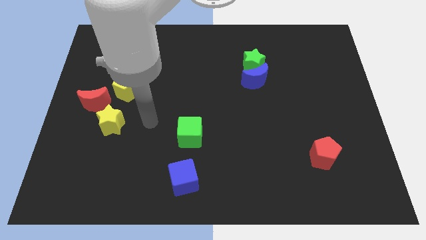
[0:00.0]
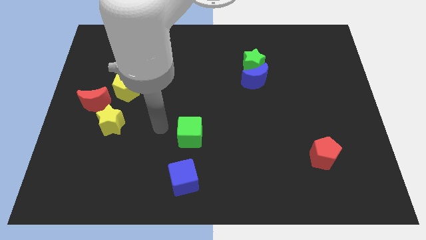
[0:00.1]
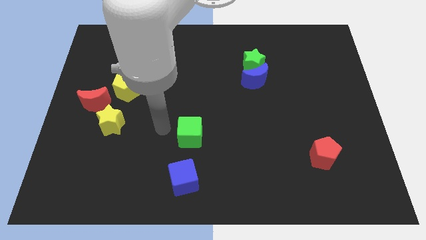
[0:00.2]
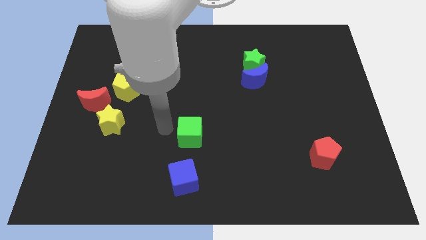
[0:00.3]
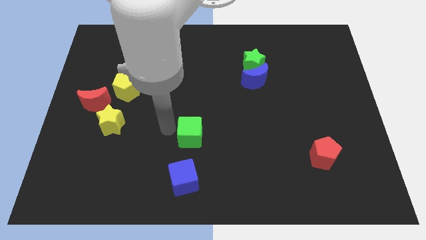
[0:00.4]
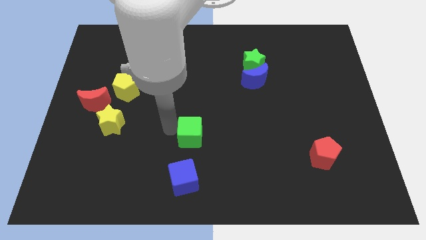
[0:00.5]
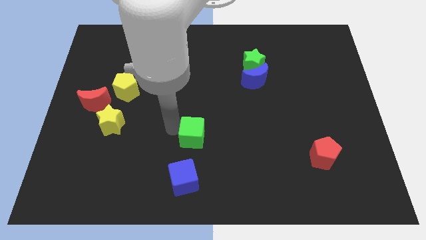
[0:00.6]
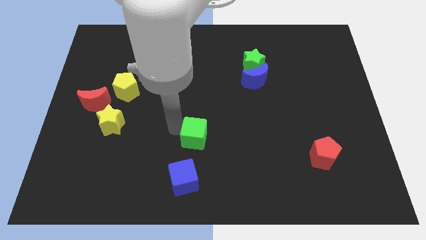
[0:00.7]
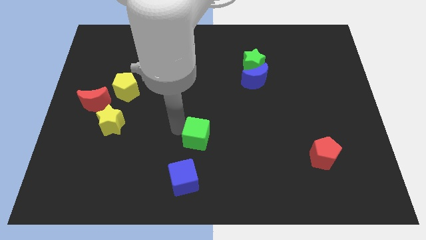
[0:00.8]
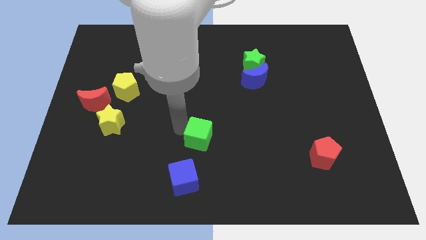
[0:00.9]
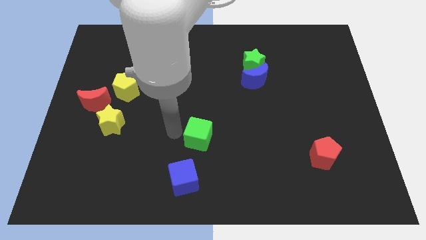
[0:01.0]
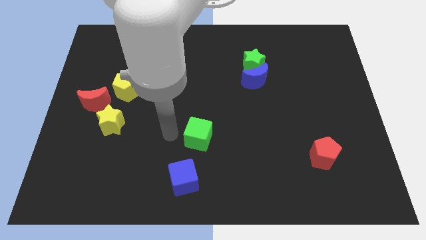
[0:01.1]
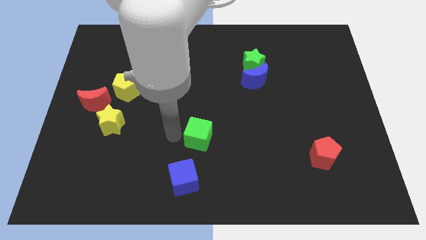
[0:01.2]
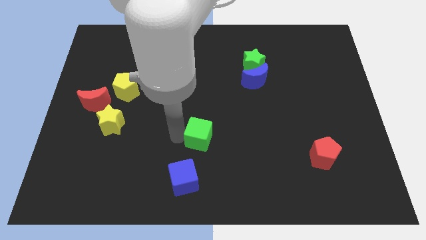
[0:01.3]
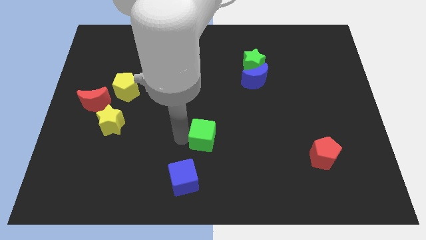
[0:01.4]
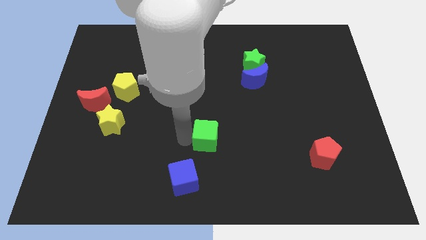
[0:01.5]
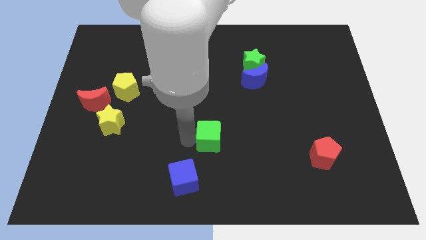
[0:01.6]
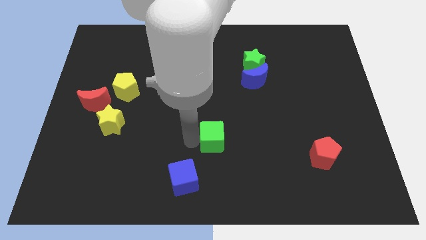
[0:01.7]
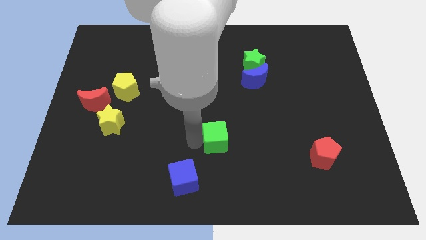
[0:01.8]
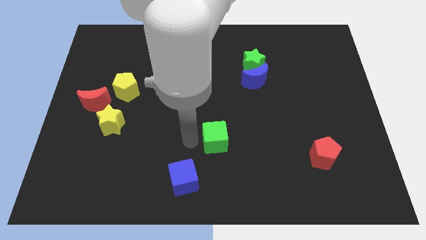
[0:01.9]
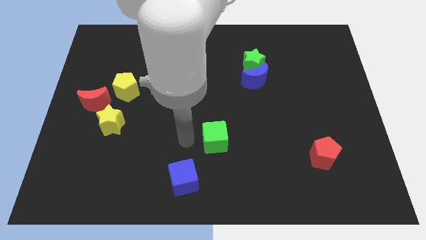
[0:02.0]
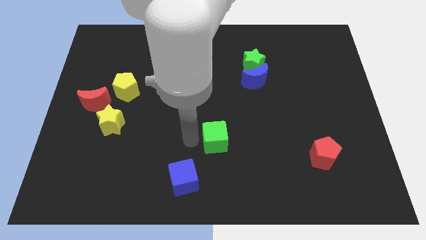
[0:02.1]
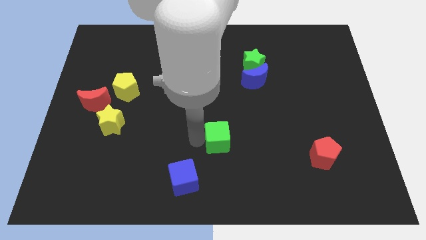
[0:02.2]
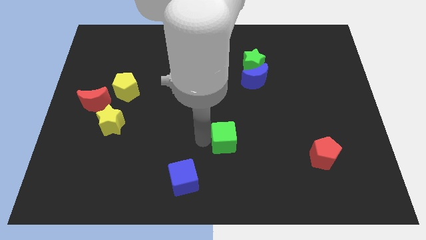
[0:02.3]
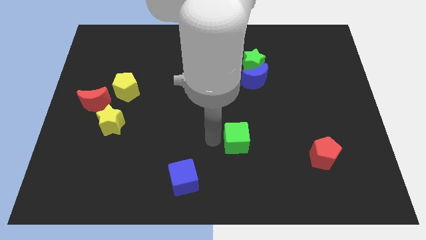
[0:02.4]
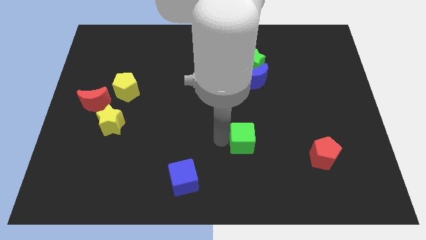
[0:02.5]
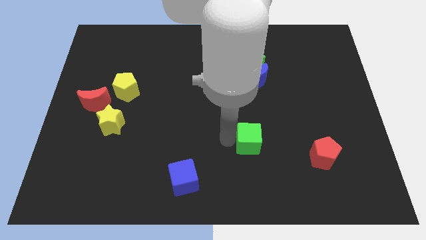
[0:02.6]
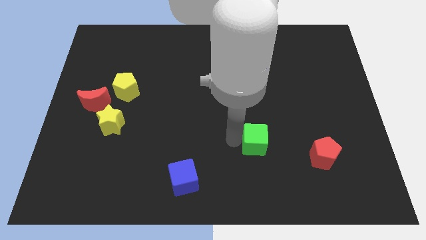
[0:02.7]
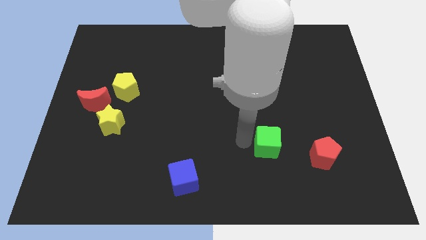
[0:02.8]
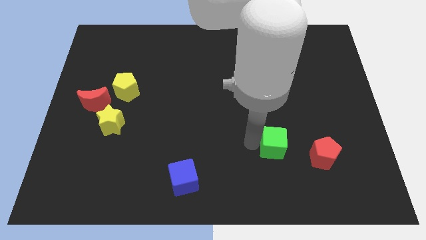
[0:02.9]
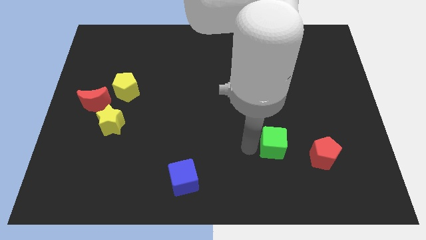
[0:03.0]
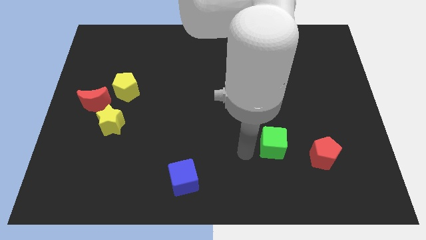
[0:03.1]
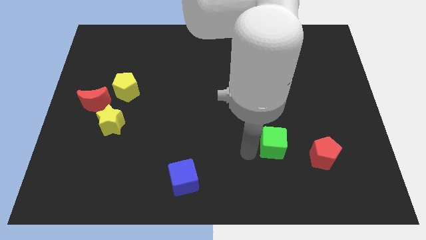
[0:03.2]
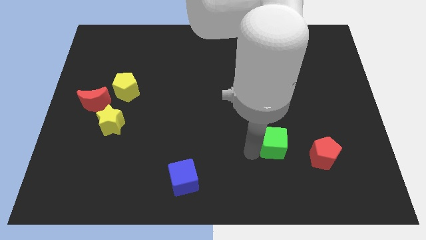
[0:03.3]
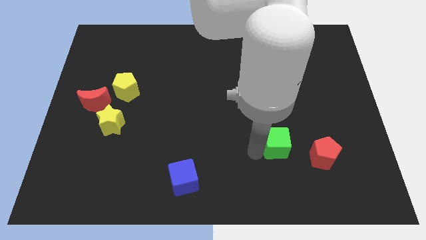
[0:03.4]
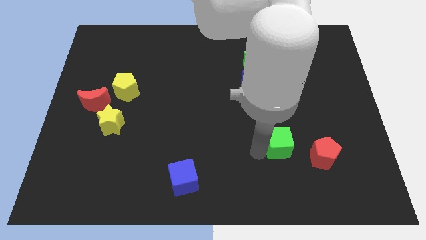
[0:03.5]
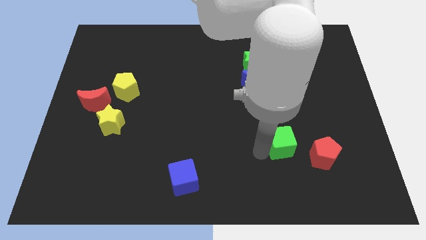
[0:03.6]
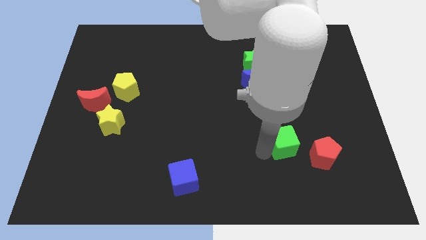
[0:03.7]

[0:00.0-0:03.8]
slide the green cube right

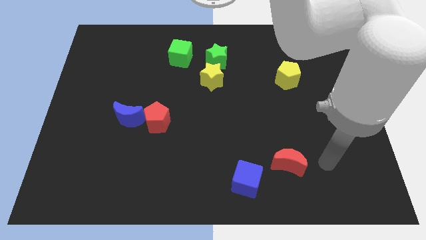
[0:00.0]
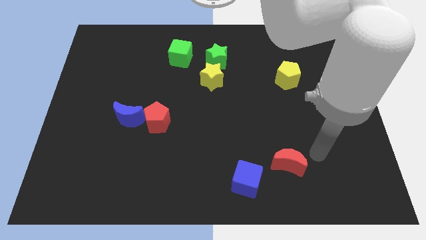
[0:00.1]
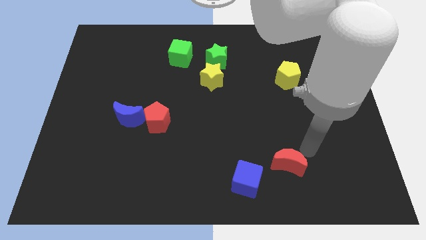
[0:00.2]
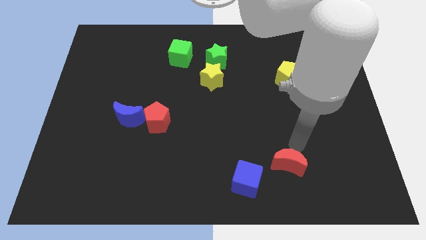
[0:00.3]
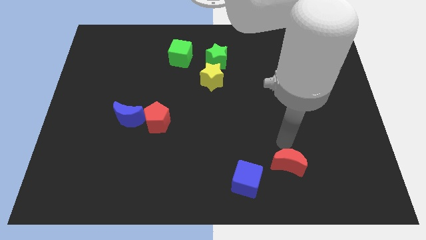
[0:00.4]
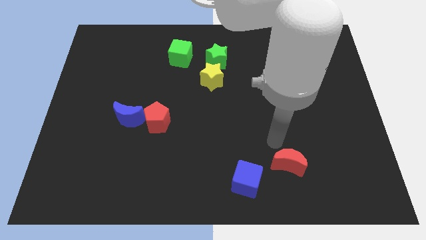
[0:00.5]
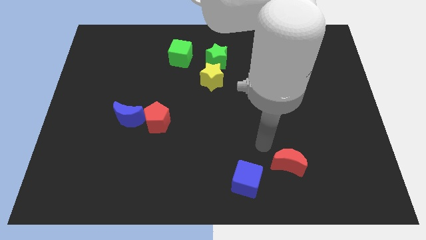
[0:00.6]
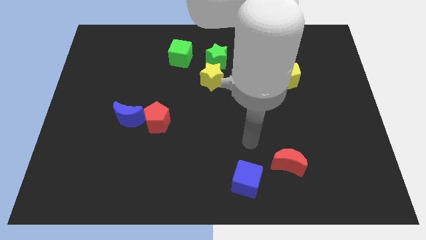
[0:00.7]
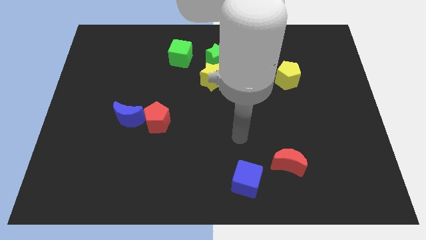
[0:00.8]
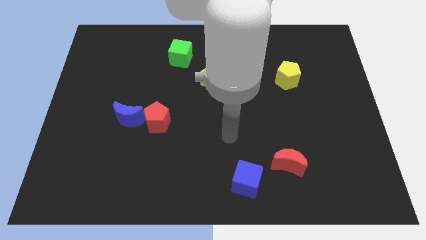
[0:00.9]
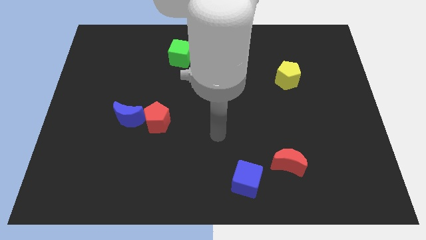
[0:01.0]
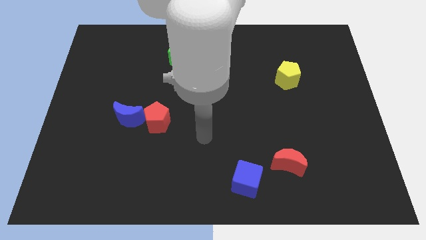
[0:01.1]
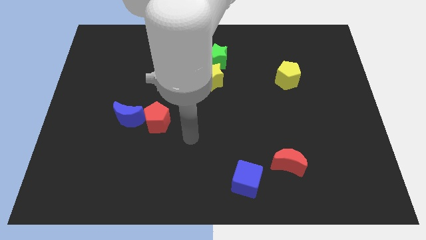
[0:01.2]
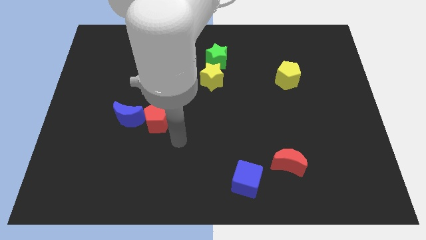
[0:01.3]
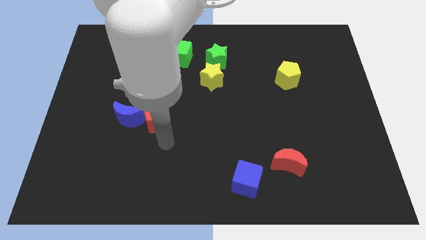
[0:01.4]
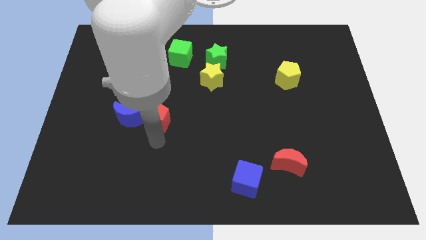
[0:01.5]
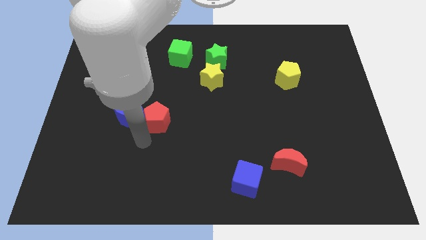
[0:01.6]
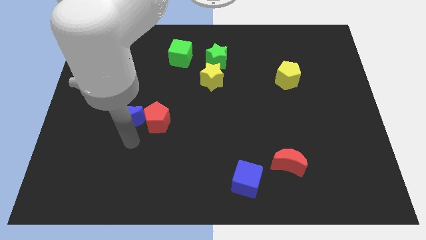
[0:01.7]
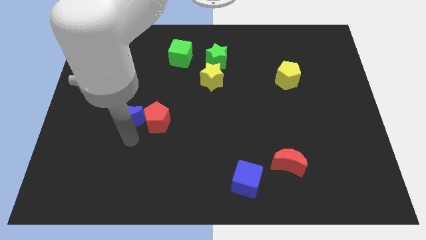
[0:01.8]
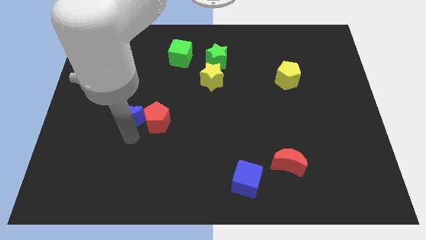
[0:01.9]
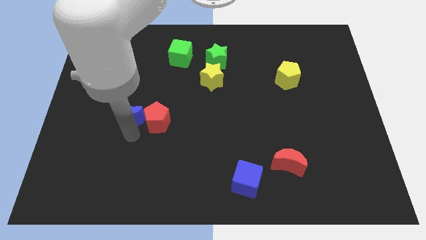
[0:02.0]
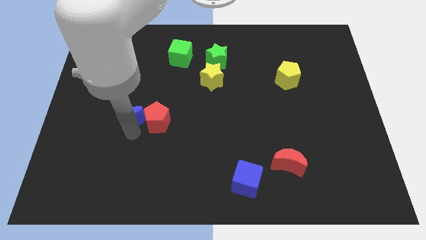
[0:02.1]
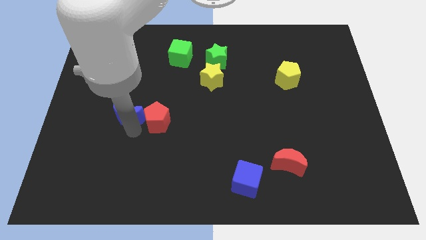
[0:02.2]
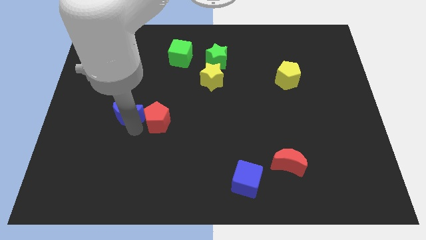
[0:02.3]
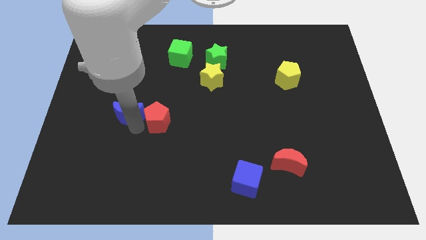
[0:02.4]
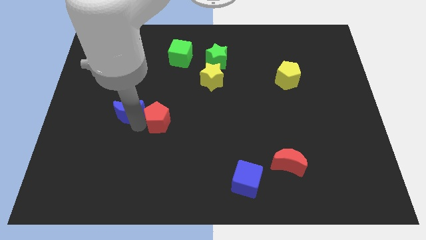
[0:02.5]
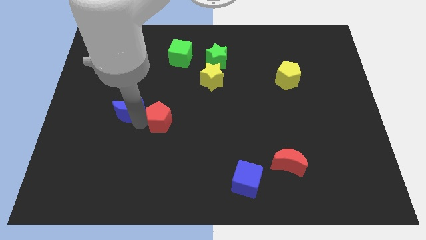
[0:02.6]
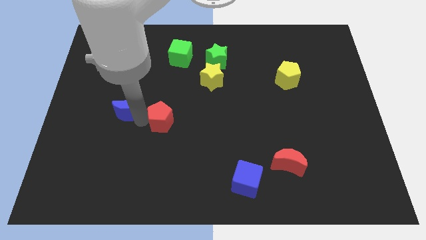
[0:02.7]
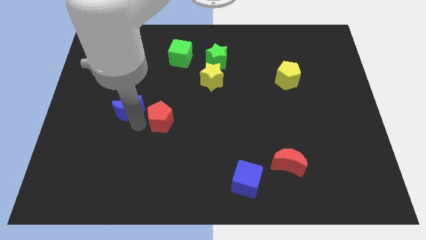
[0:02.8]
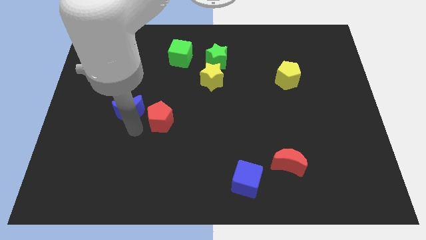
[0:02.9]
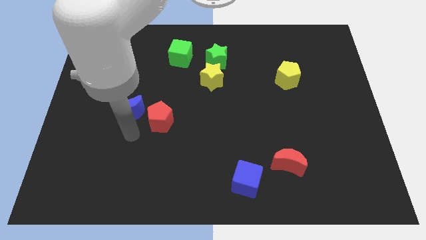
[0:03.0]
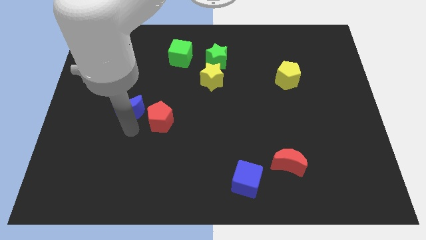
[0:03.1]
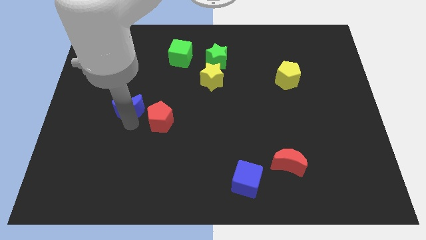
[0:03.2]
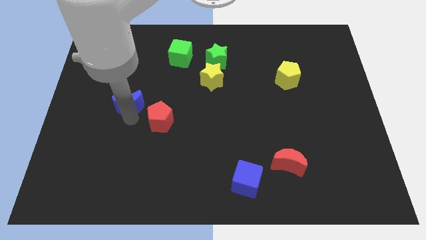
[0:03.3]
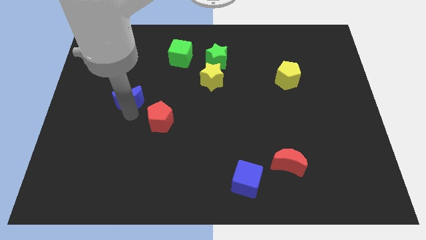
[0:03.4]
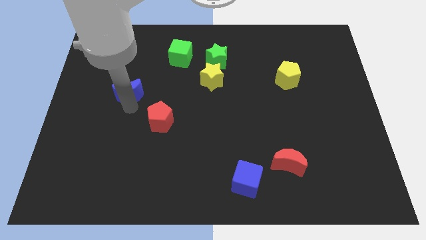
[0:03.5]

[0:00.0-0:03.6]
push the blue moon up somewhat

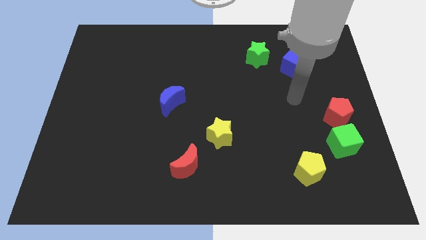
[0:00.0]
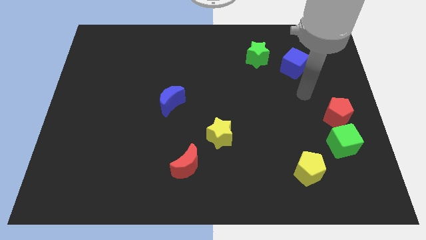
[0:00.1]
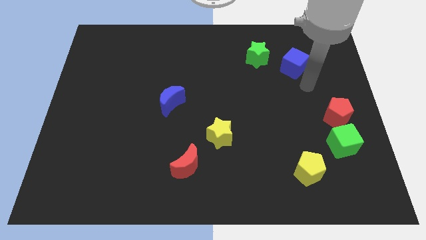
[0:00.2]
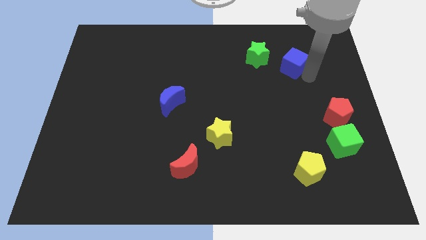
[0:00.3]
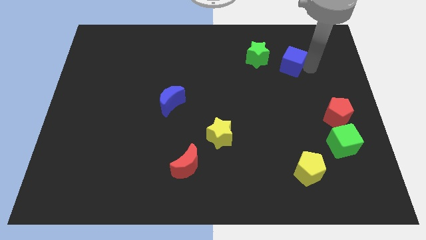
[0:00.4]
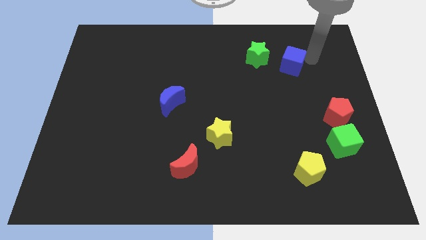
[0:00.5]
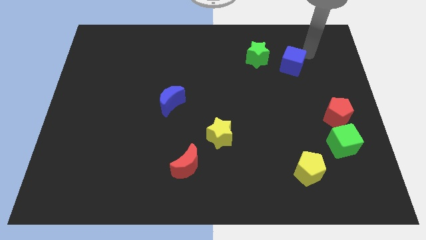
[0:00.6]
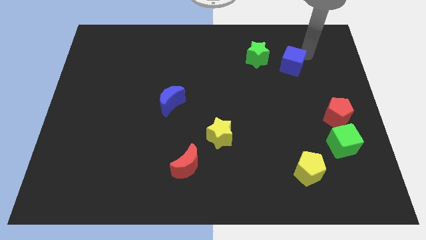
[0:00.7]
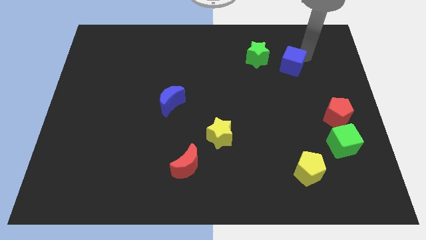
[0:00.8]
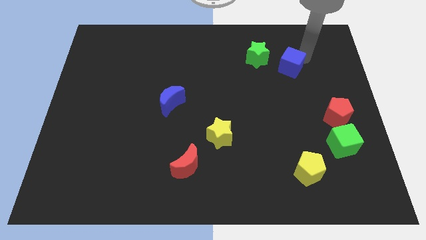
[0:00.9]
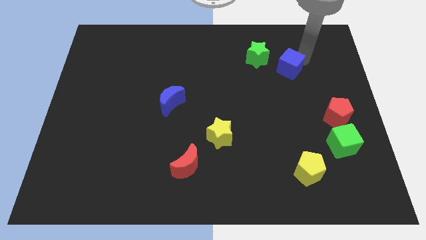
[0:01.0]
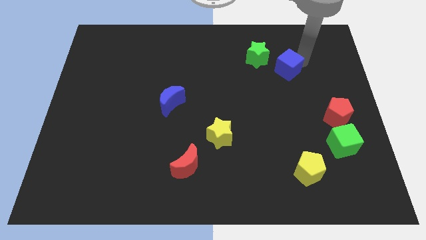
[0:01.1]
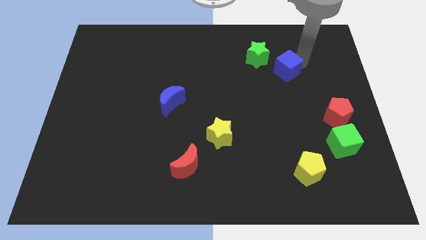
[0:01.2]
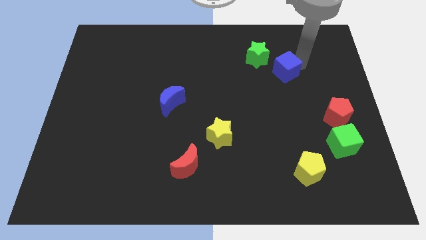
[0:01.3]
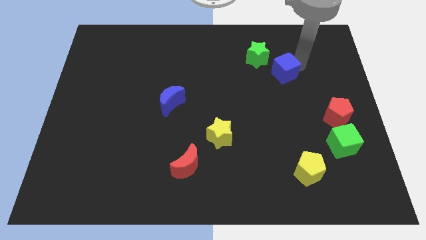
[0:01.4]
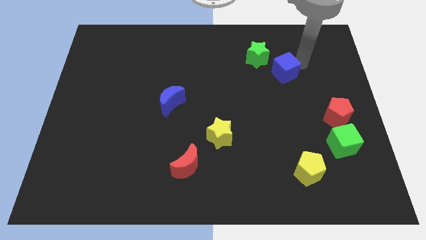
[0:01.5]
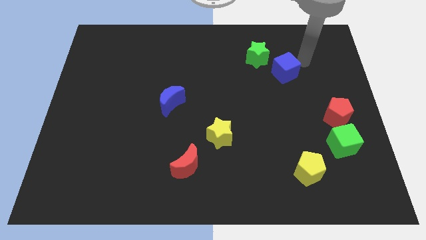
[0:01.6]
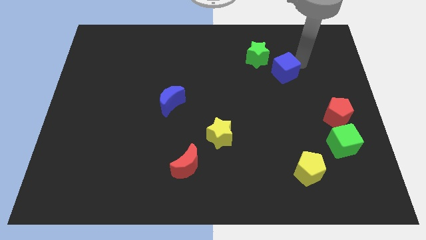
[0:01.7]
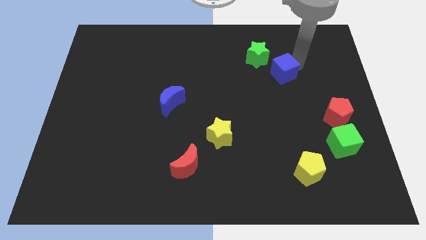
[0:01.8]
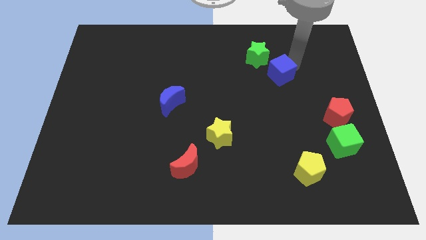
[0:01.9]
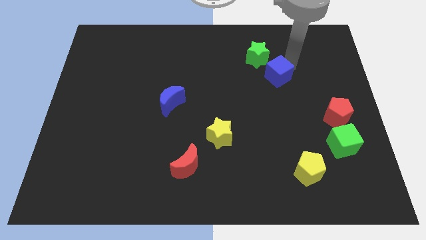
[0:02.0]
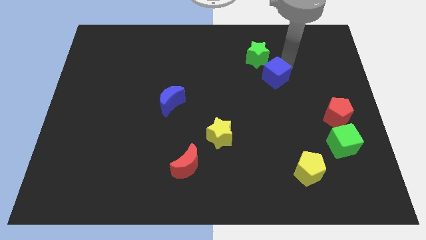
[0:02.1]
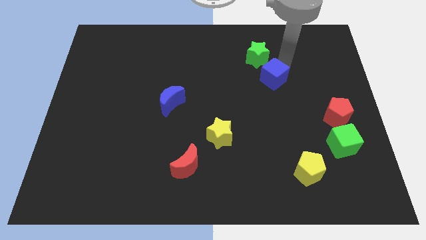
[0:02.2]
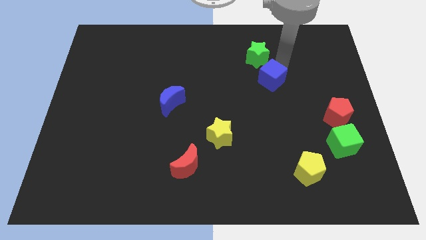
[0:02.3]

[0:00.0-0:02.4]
slide the blue cube diagonally downwards and left slightly
